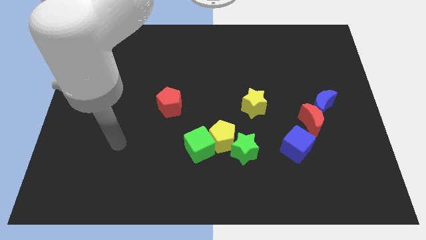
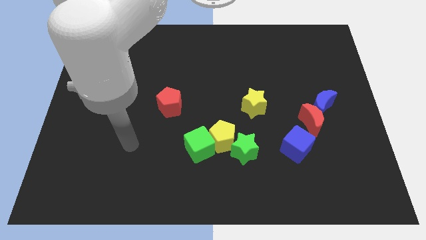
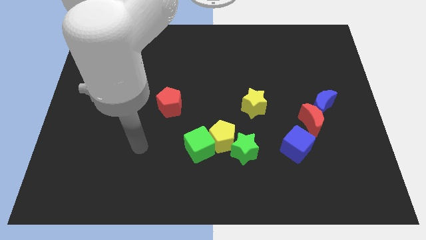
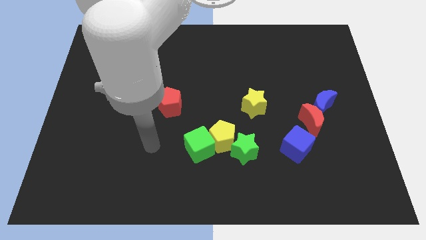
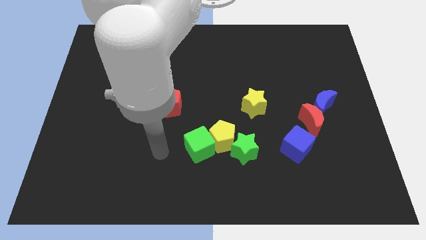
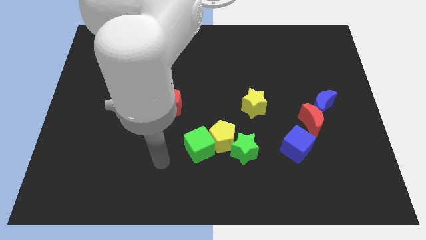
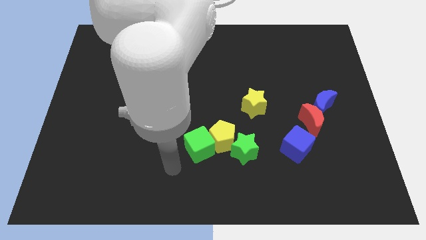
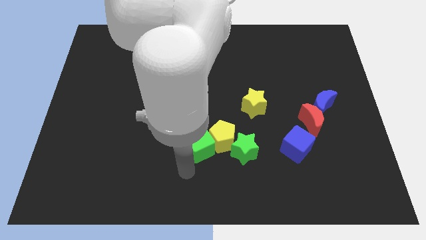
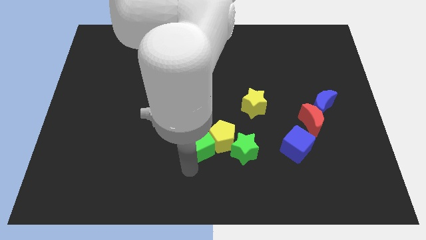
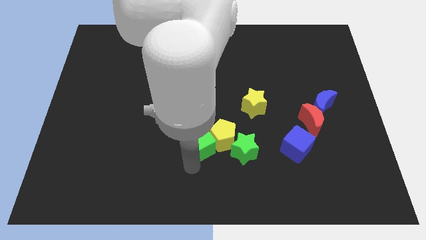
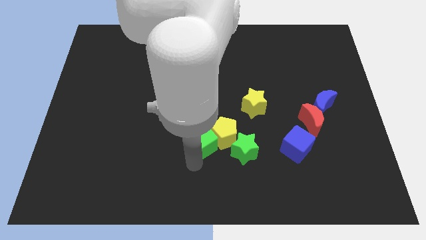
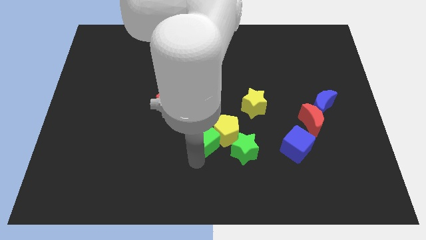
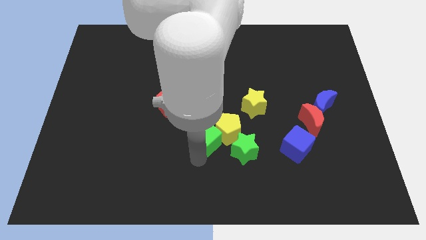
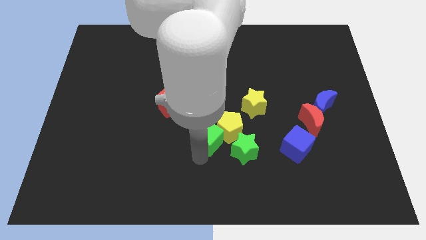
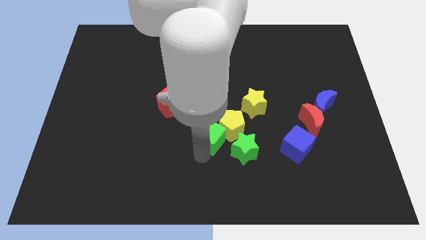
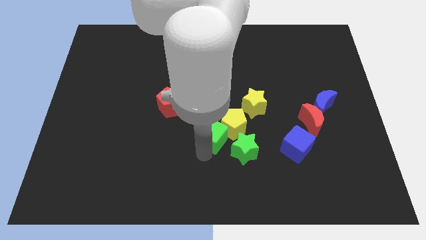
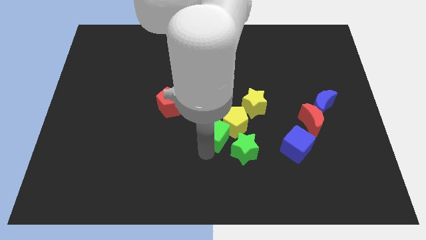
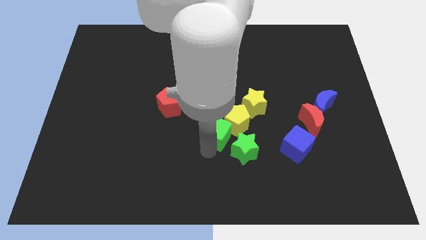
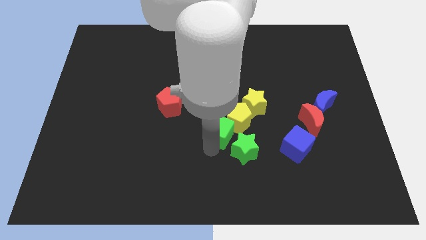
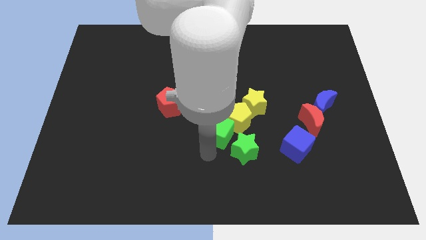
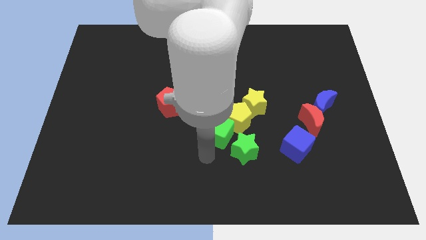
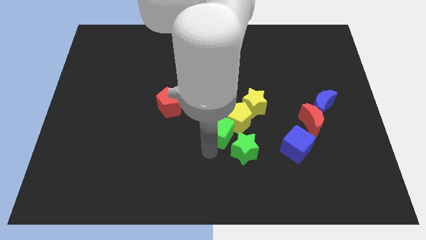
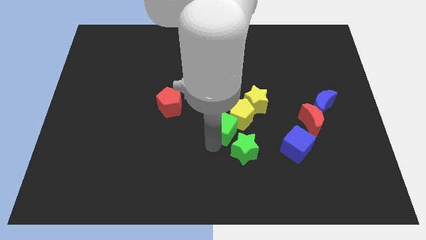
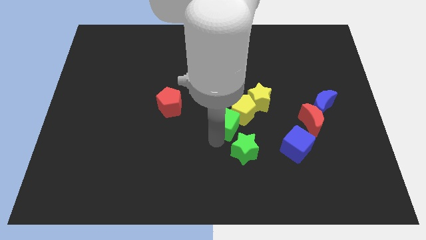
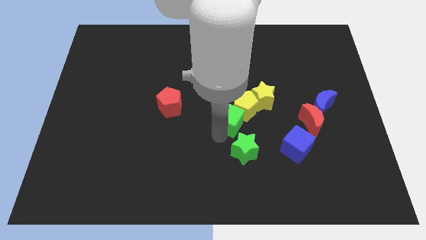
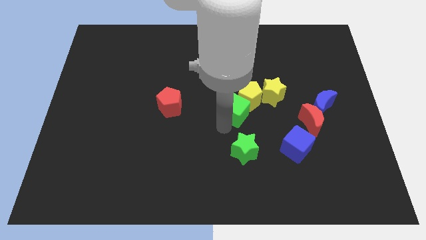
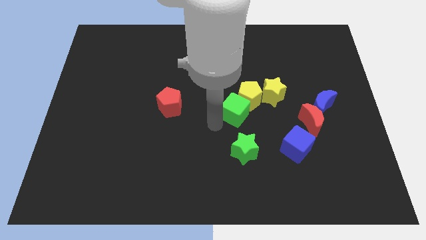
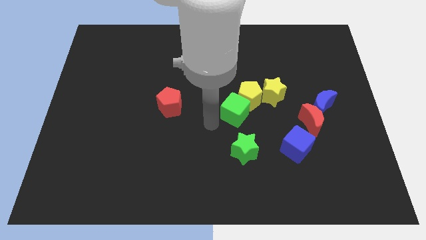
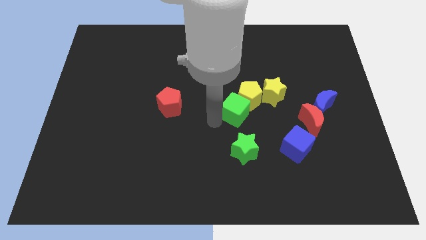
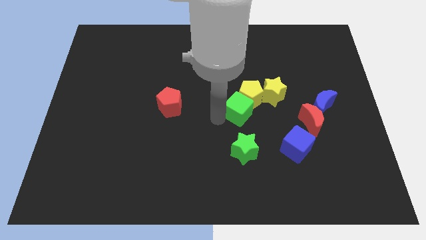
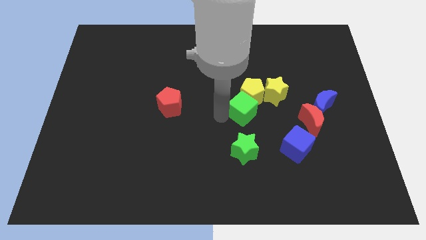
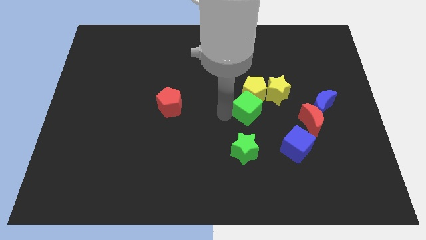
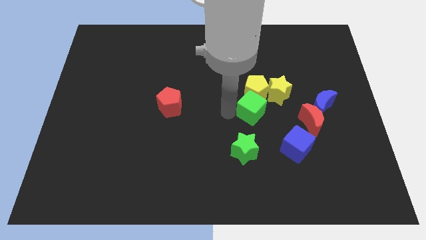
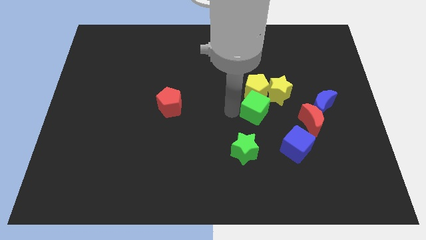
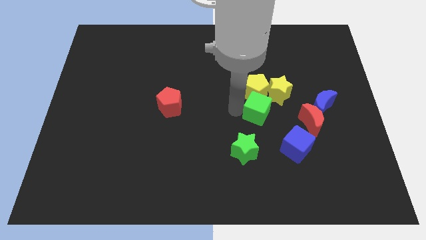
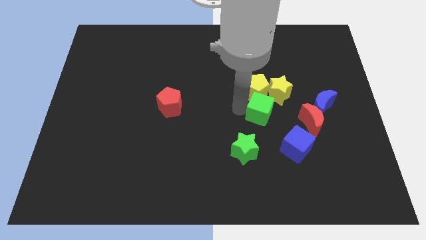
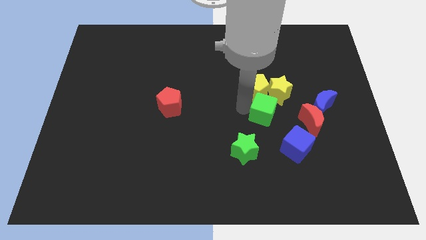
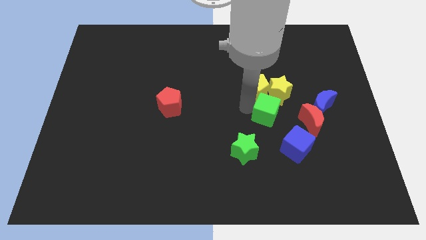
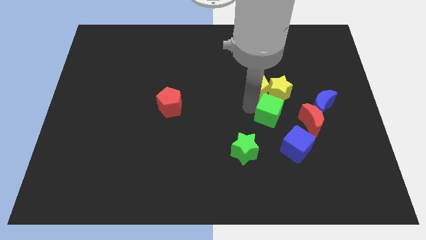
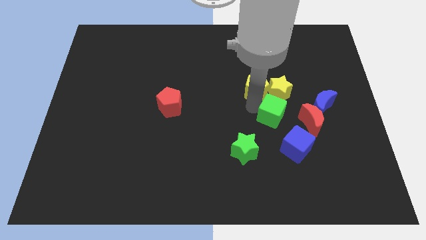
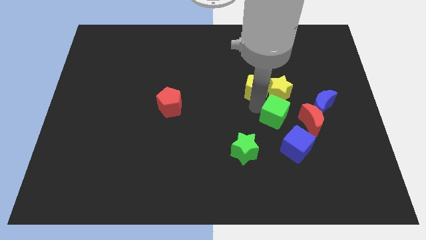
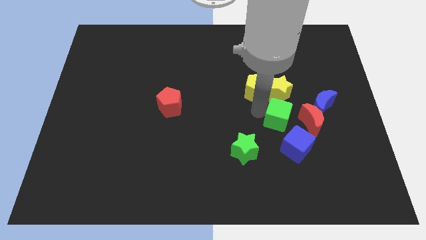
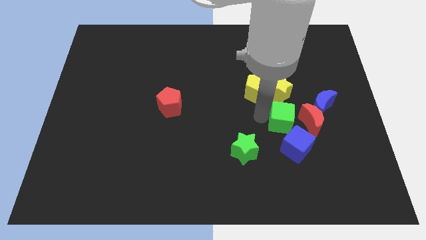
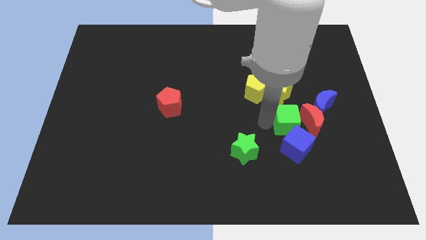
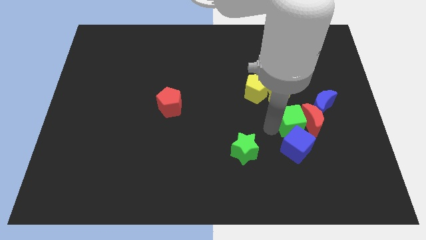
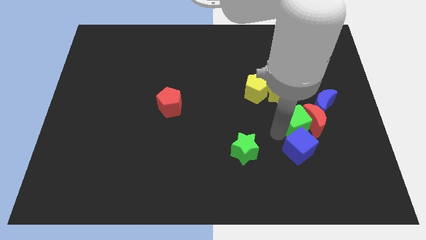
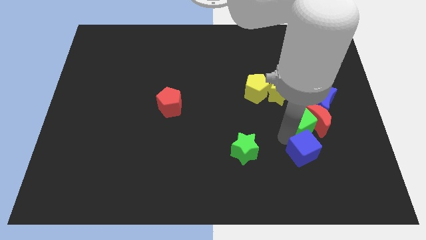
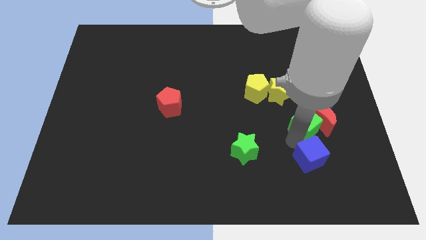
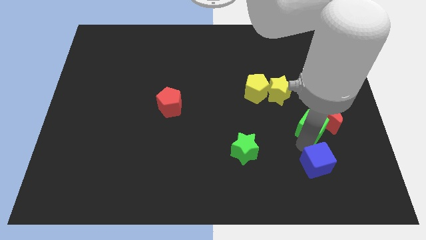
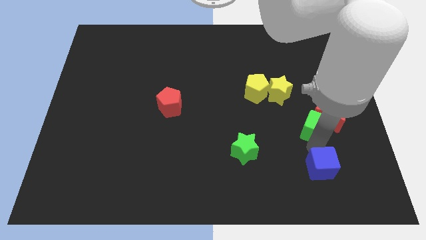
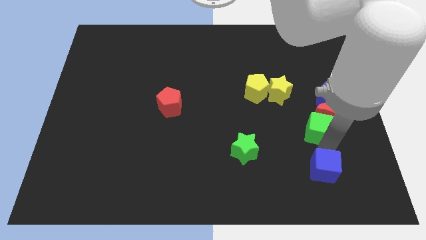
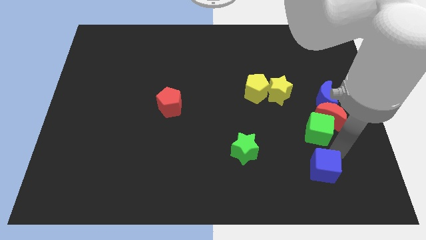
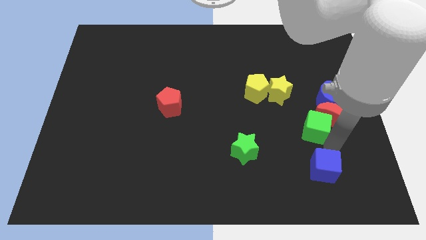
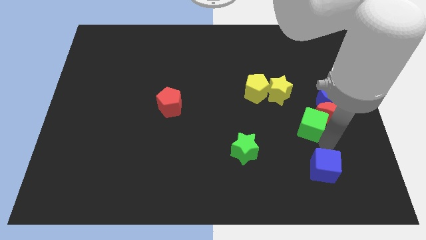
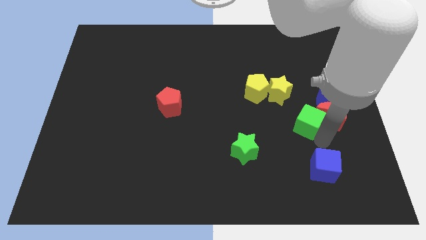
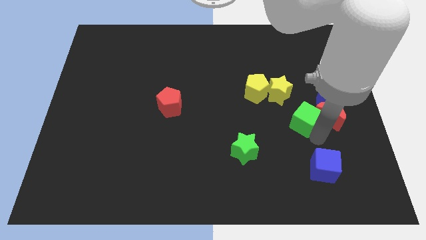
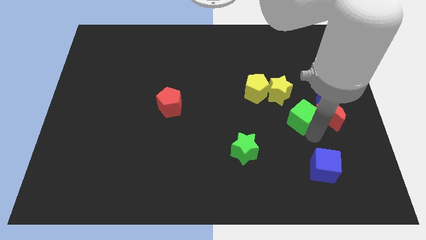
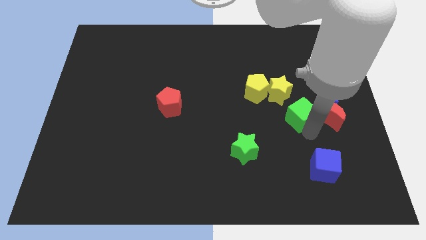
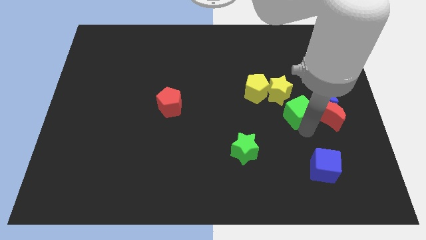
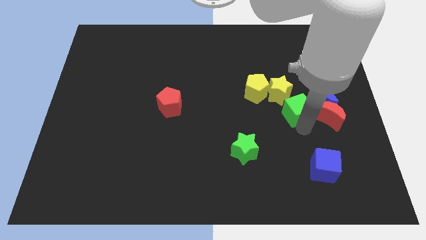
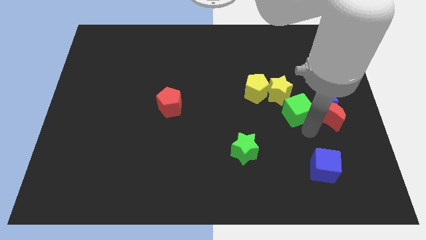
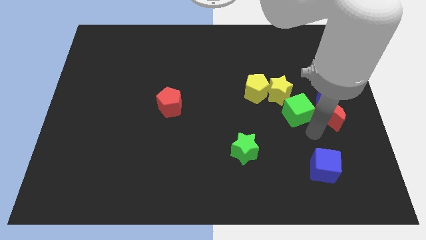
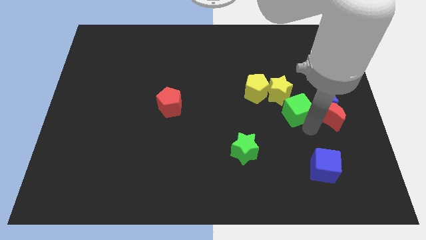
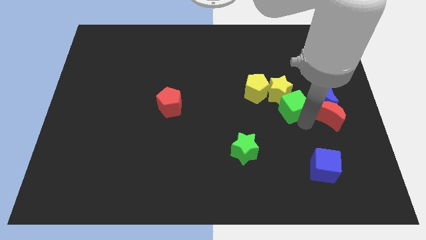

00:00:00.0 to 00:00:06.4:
put the green cube next to the yellow star

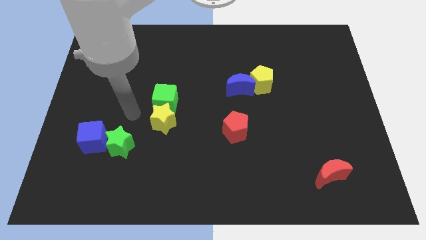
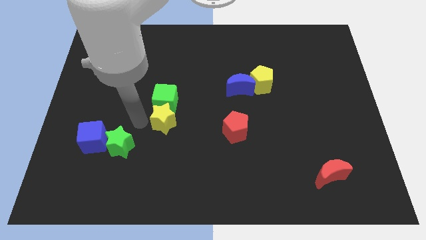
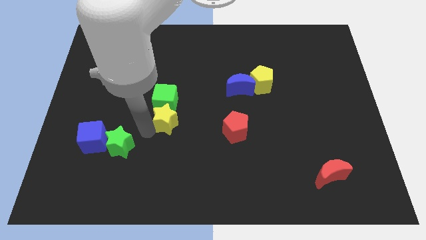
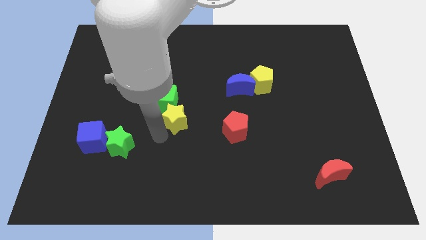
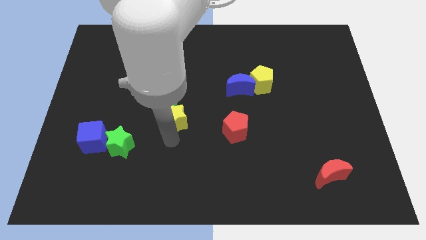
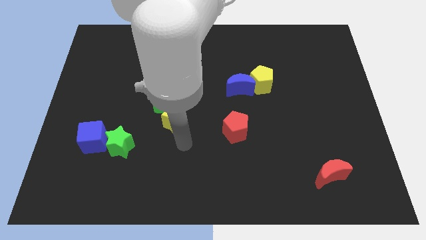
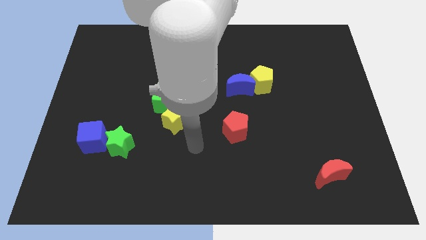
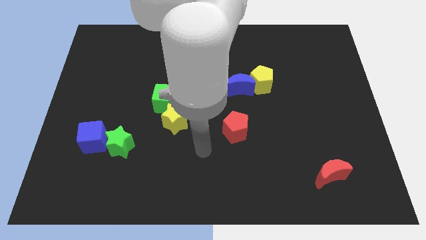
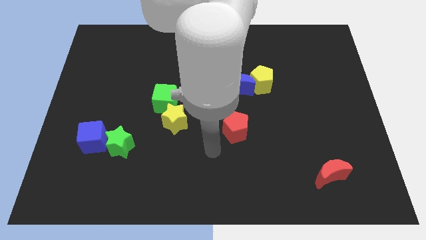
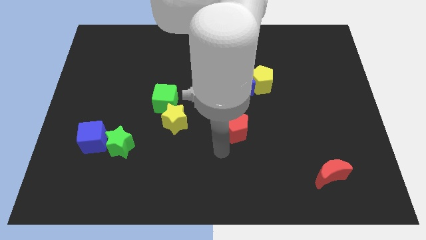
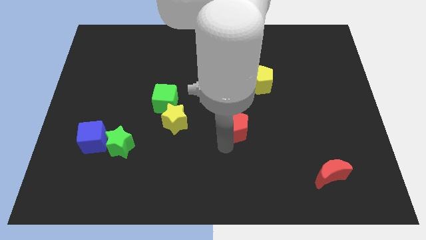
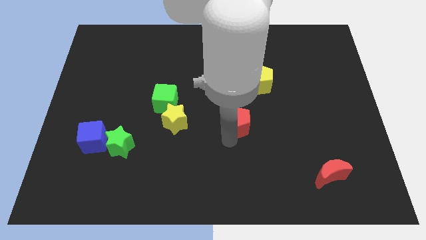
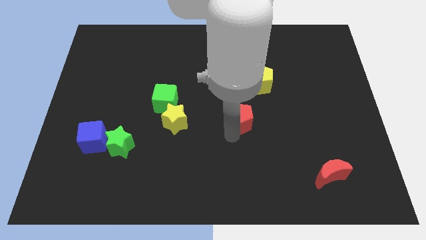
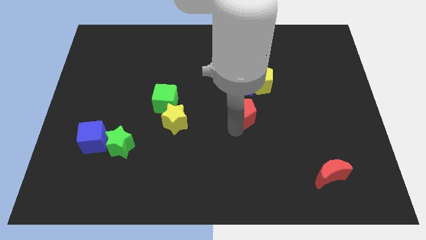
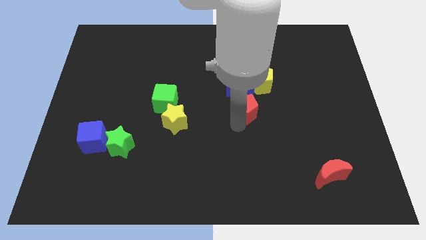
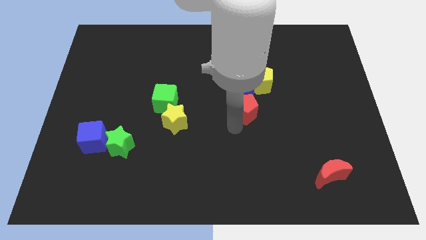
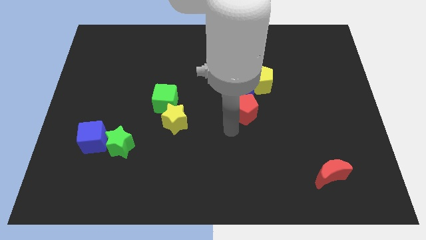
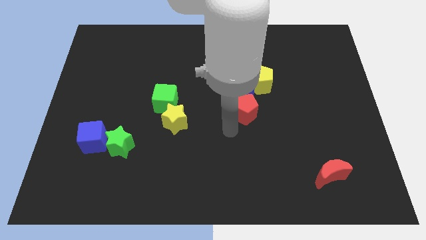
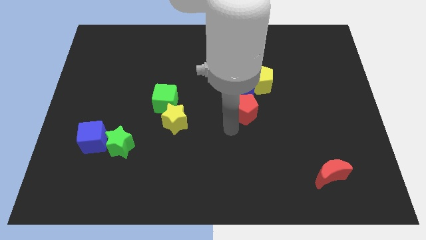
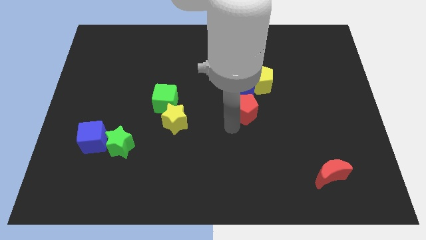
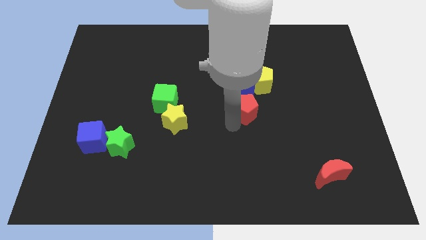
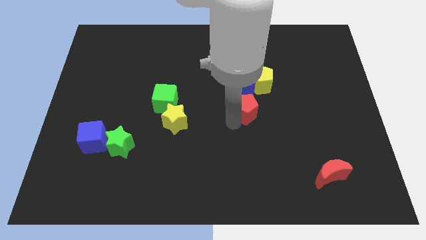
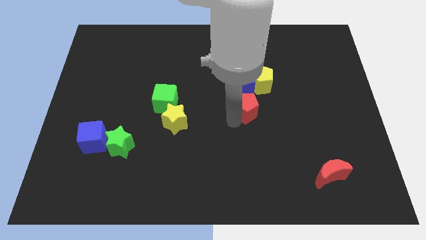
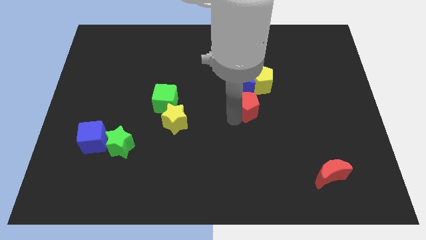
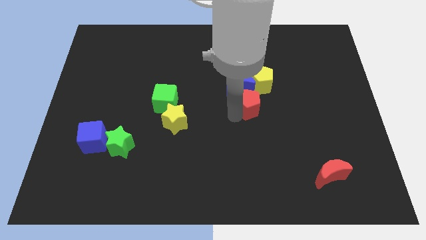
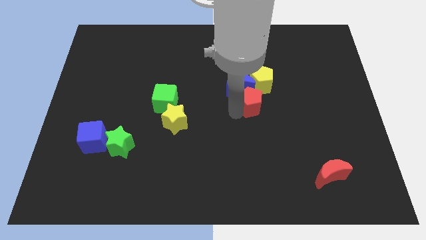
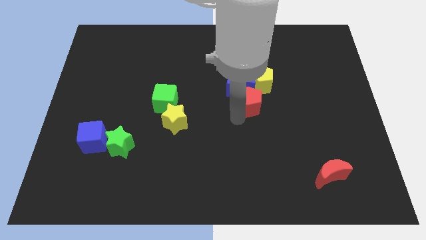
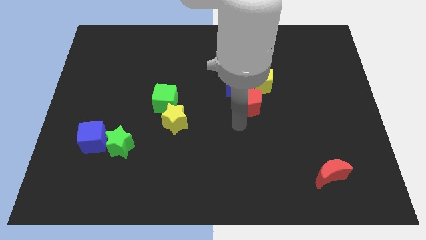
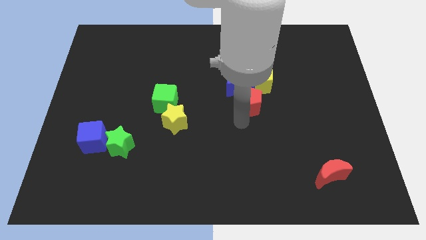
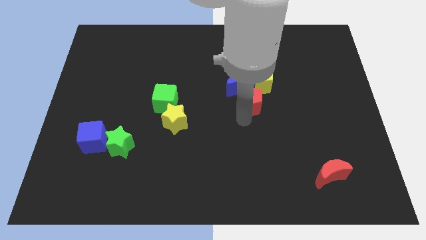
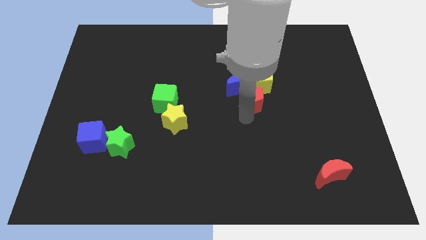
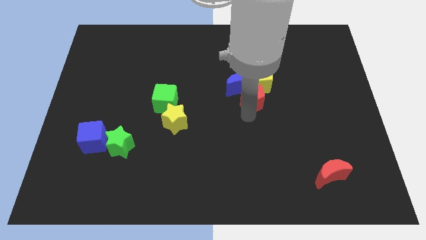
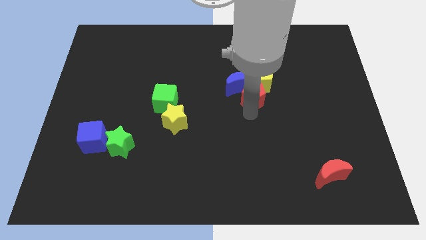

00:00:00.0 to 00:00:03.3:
push the red pentagon towards the yellow pentagon
